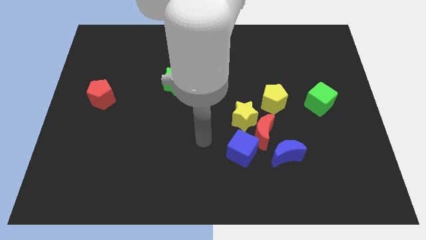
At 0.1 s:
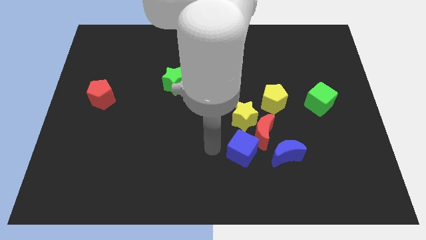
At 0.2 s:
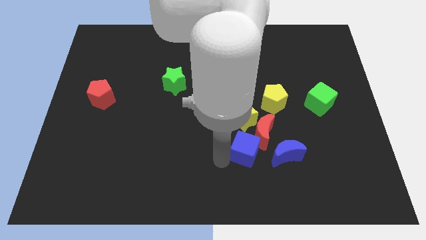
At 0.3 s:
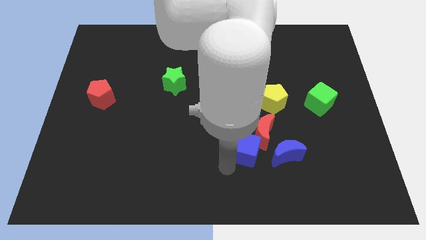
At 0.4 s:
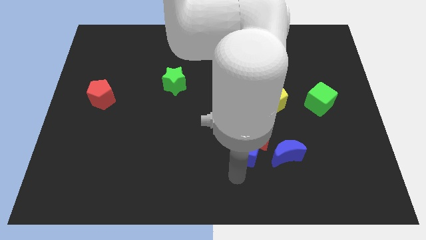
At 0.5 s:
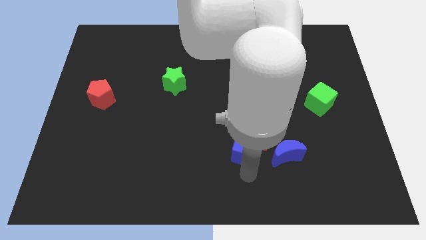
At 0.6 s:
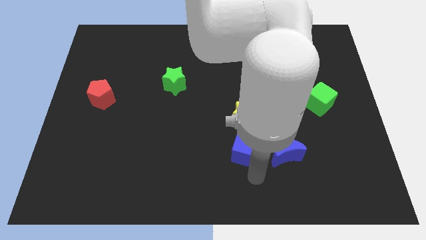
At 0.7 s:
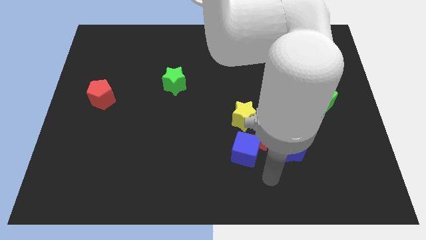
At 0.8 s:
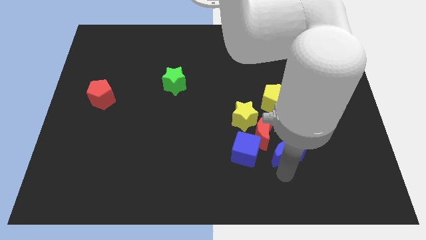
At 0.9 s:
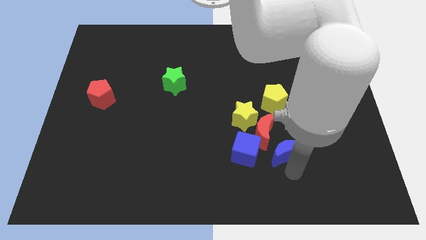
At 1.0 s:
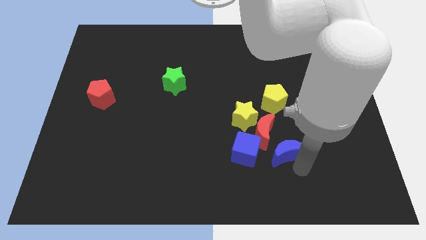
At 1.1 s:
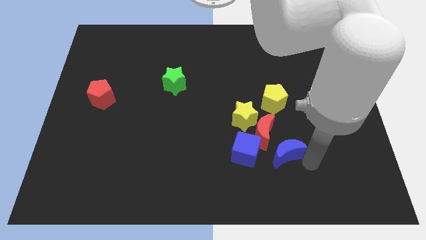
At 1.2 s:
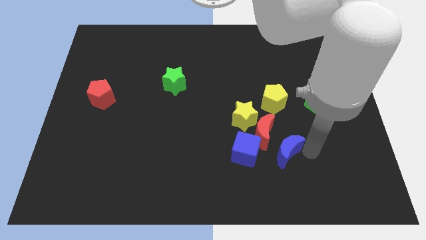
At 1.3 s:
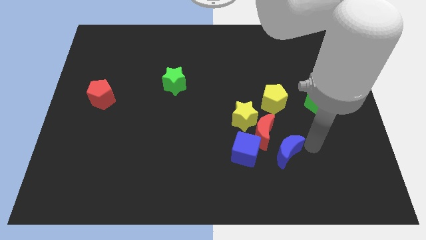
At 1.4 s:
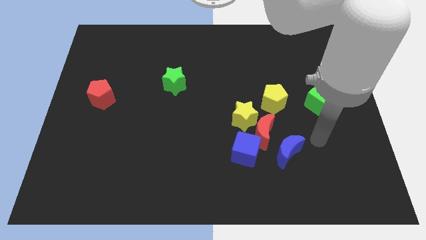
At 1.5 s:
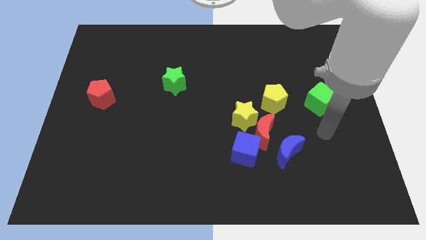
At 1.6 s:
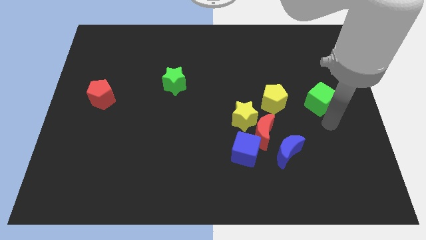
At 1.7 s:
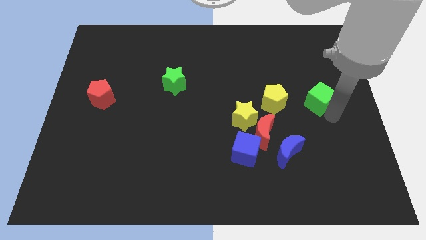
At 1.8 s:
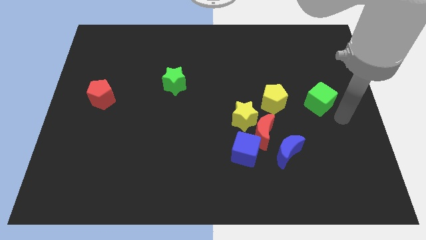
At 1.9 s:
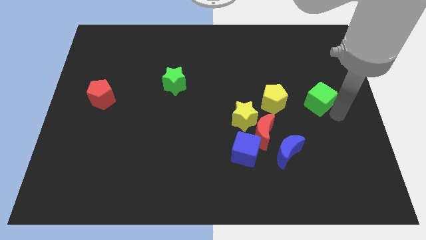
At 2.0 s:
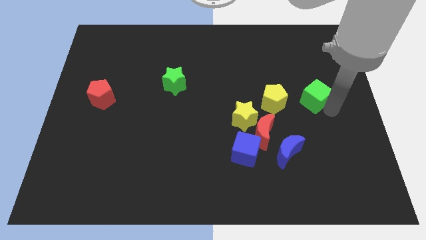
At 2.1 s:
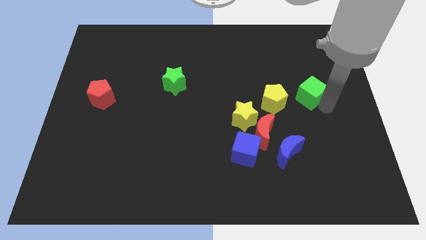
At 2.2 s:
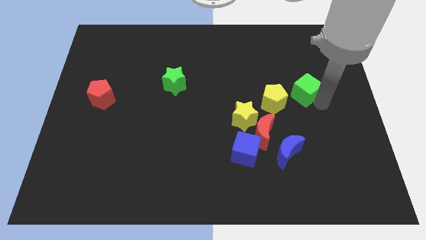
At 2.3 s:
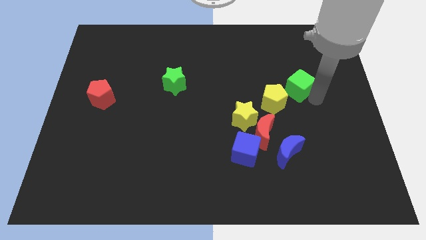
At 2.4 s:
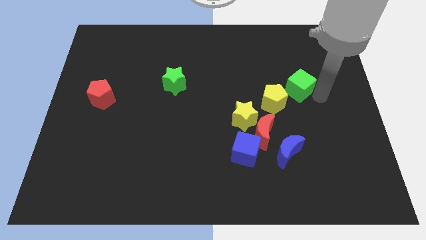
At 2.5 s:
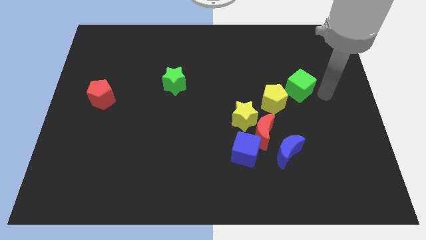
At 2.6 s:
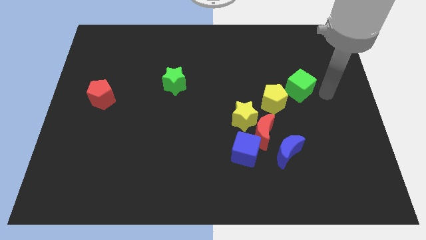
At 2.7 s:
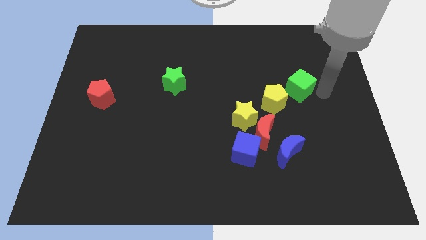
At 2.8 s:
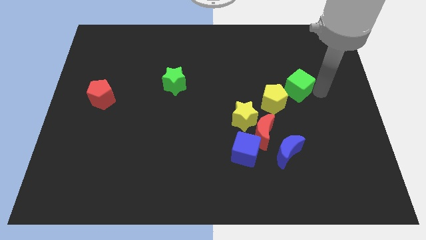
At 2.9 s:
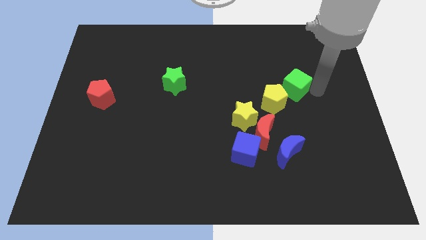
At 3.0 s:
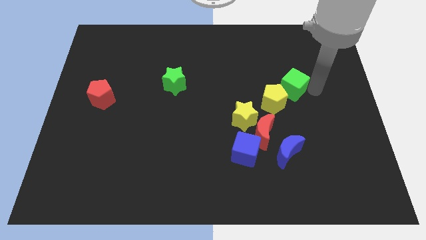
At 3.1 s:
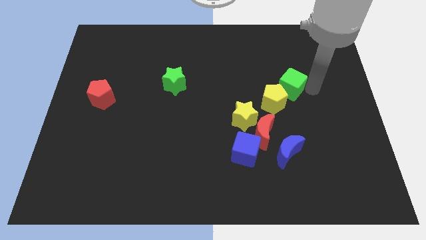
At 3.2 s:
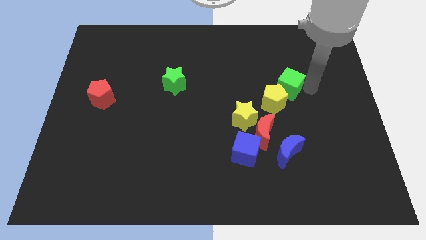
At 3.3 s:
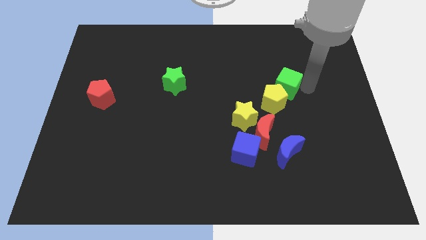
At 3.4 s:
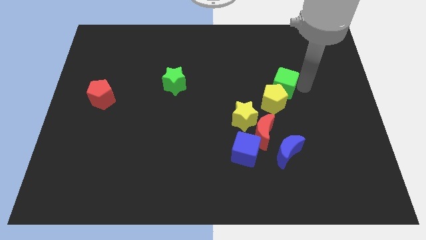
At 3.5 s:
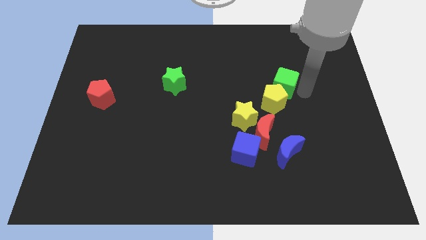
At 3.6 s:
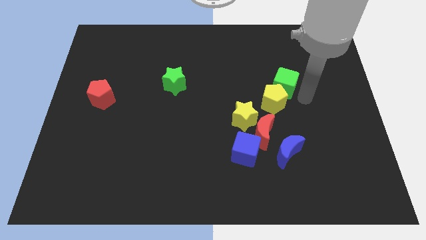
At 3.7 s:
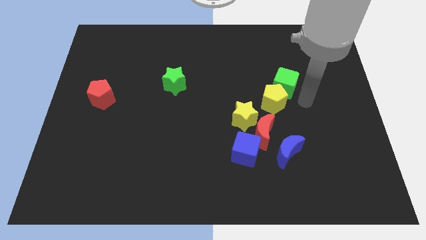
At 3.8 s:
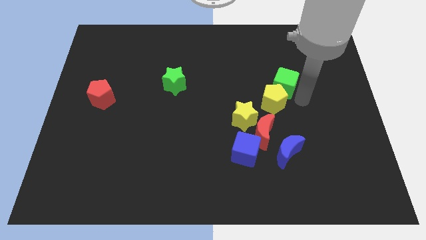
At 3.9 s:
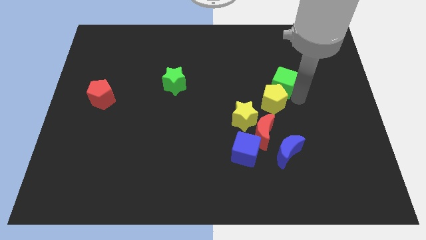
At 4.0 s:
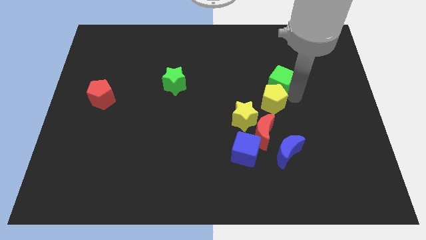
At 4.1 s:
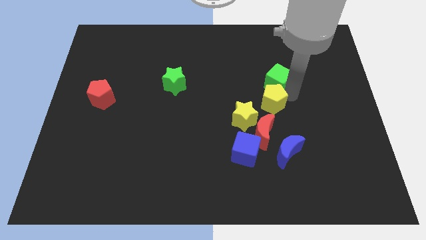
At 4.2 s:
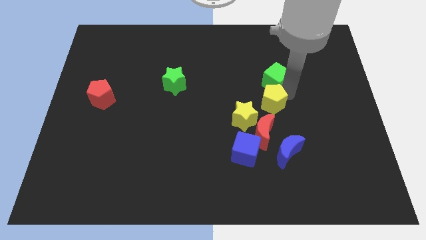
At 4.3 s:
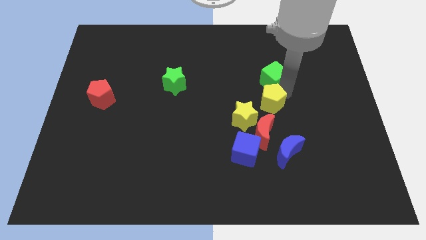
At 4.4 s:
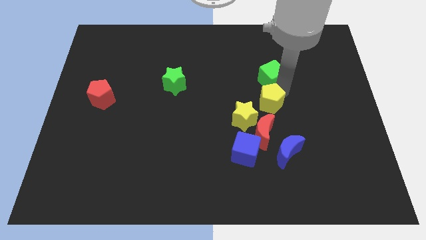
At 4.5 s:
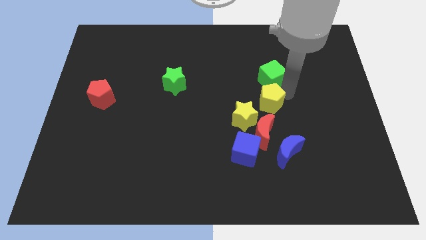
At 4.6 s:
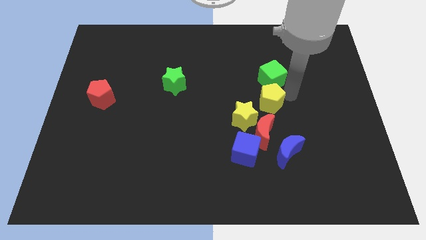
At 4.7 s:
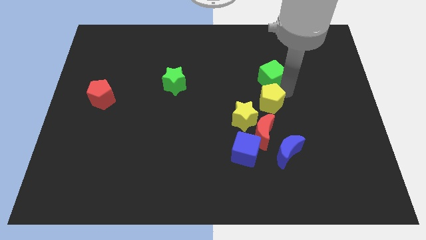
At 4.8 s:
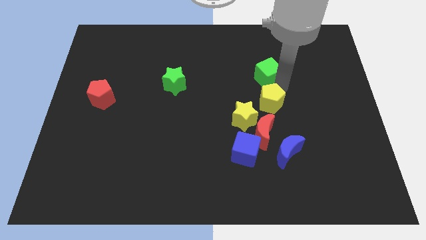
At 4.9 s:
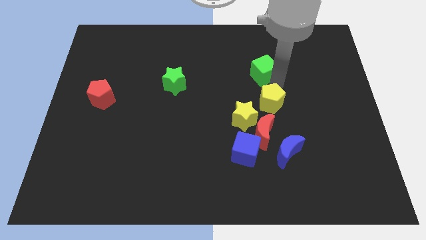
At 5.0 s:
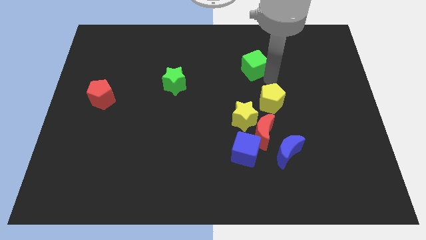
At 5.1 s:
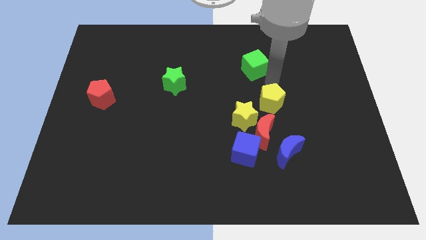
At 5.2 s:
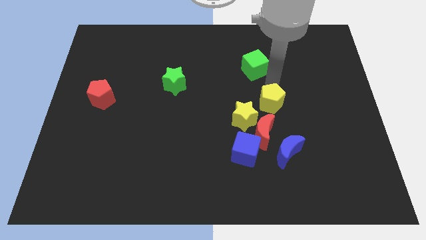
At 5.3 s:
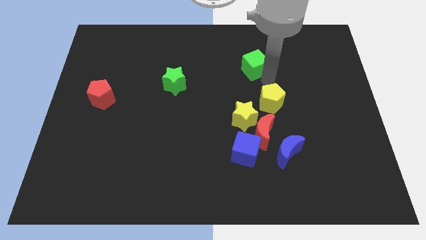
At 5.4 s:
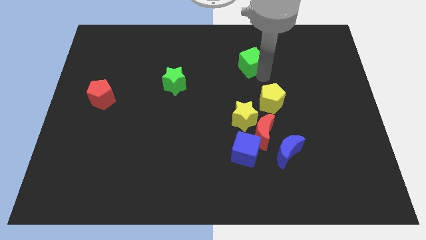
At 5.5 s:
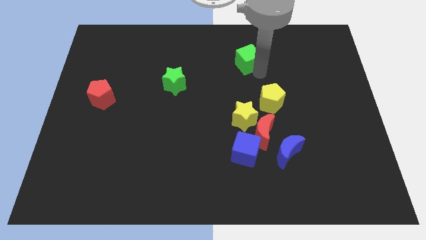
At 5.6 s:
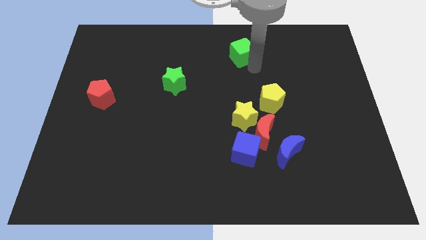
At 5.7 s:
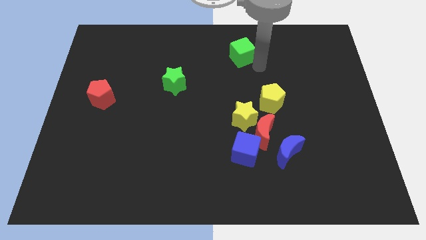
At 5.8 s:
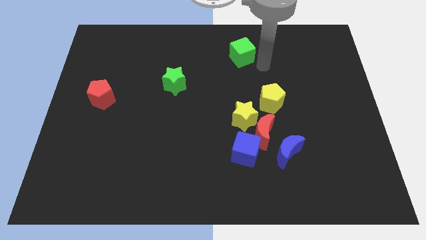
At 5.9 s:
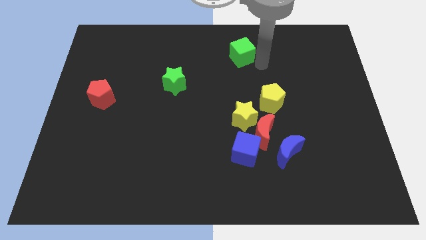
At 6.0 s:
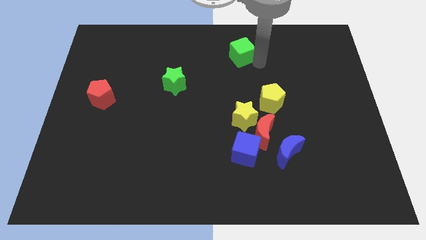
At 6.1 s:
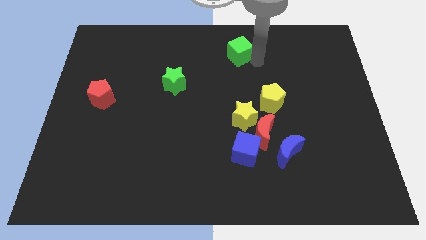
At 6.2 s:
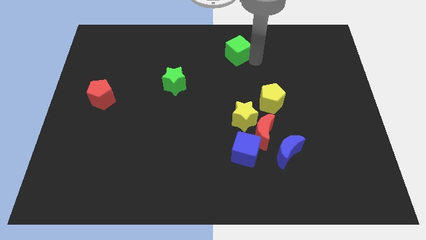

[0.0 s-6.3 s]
move the green cube to the top side

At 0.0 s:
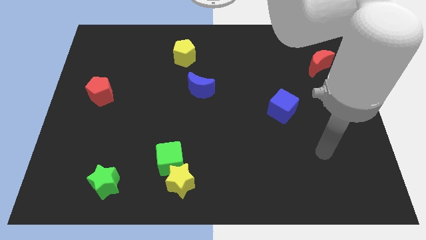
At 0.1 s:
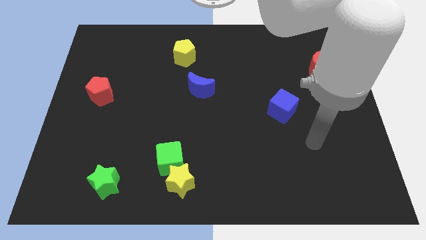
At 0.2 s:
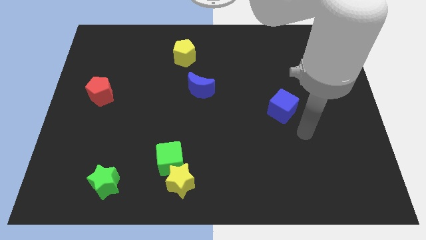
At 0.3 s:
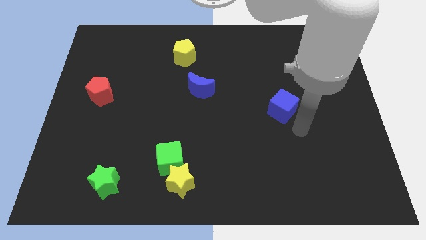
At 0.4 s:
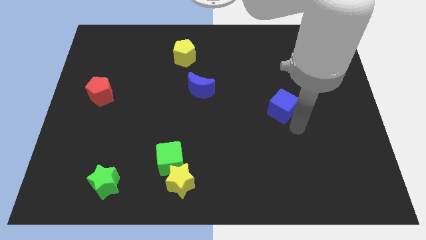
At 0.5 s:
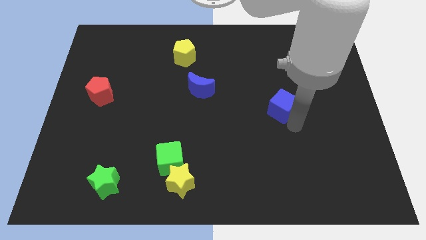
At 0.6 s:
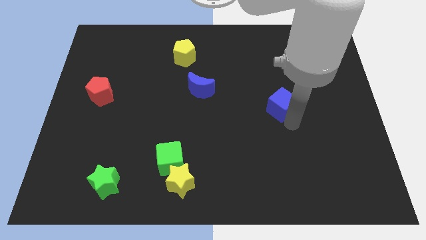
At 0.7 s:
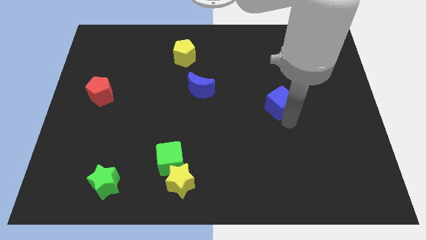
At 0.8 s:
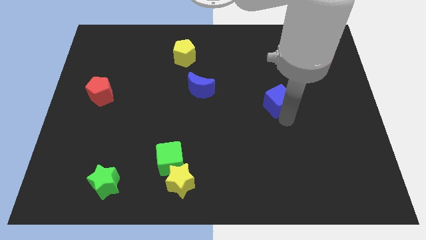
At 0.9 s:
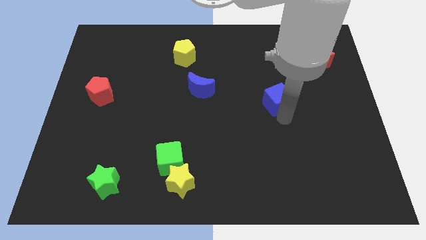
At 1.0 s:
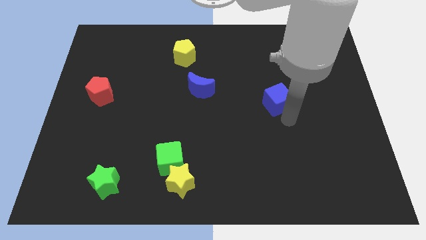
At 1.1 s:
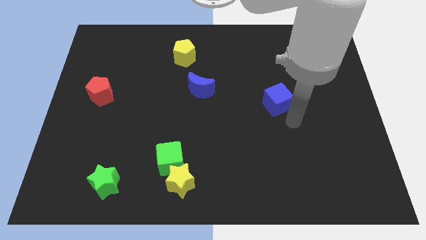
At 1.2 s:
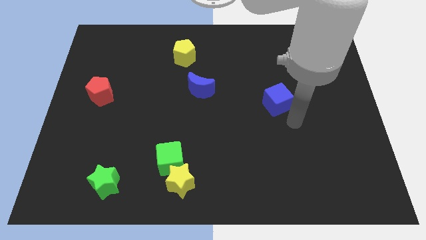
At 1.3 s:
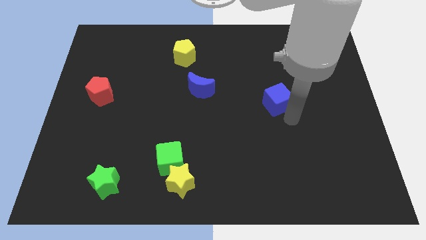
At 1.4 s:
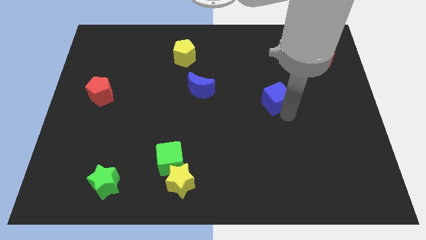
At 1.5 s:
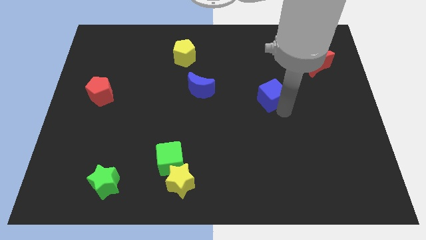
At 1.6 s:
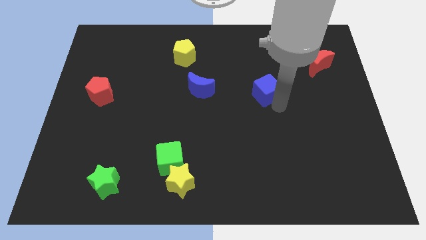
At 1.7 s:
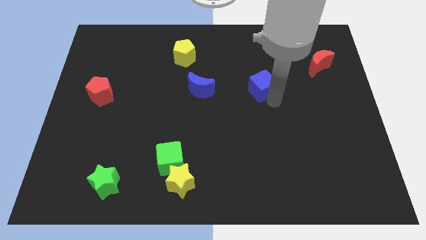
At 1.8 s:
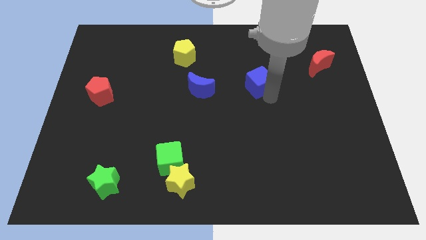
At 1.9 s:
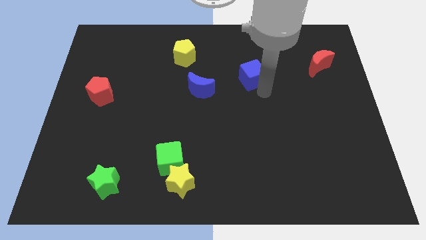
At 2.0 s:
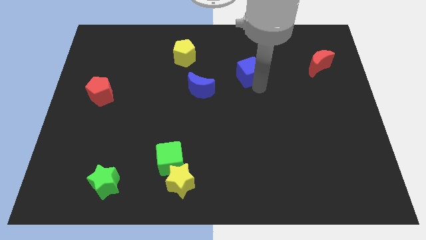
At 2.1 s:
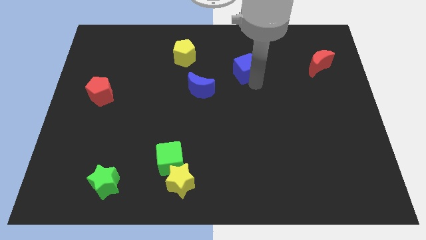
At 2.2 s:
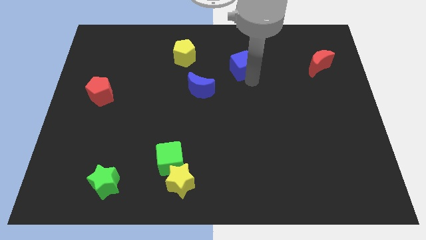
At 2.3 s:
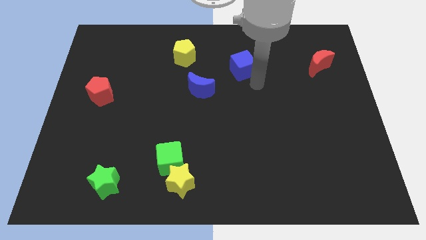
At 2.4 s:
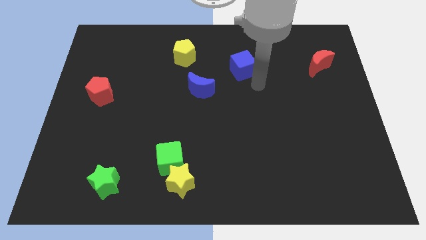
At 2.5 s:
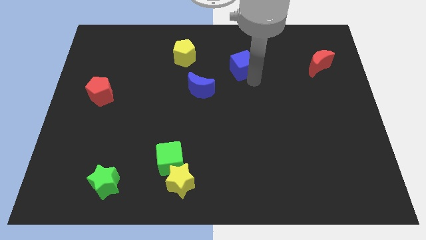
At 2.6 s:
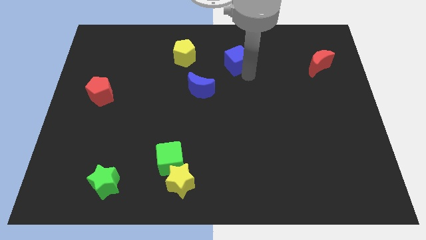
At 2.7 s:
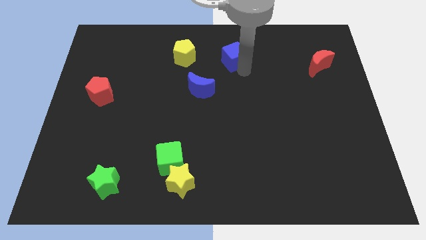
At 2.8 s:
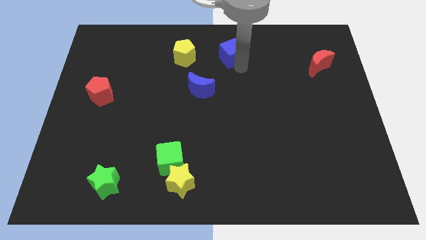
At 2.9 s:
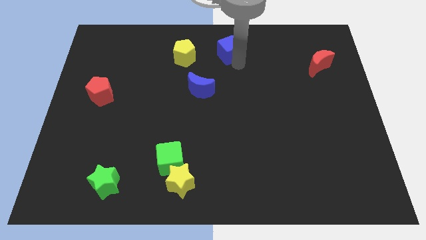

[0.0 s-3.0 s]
move the blue cube to the top side
